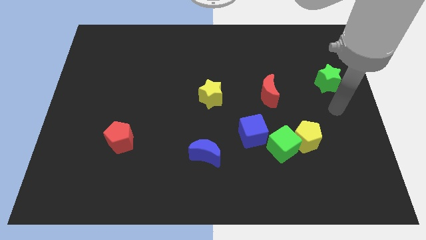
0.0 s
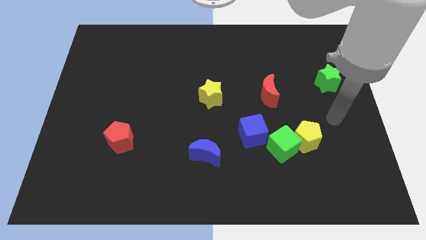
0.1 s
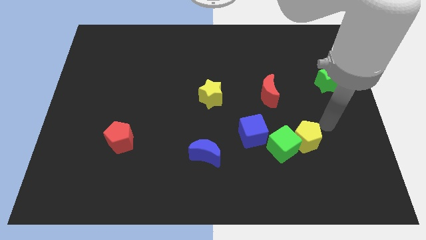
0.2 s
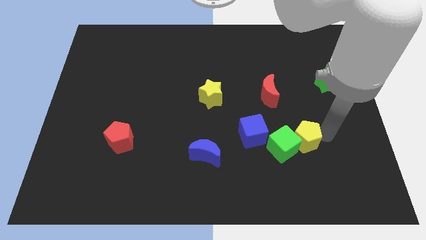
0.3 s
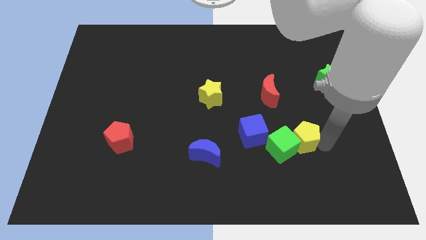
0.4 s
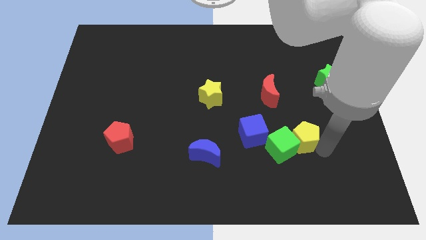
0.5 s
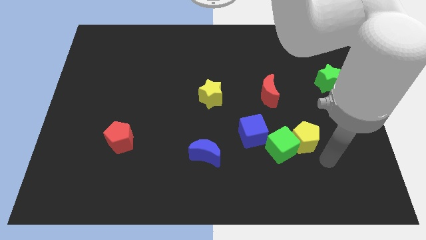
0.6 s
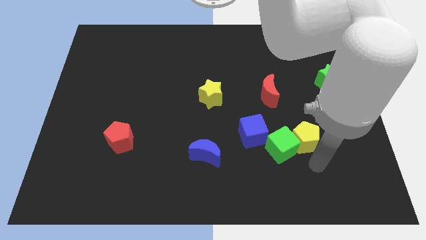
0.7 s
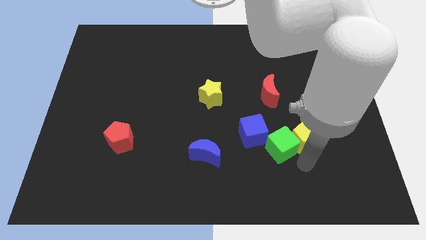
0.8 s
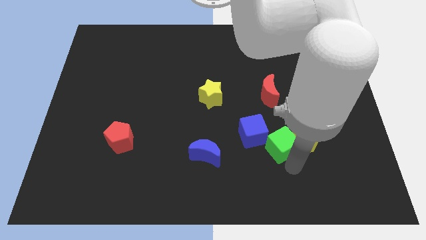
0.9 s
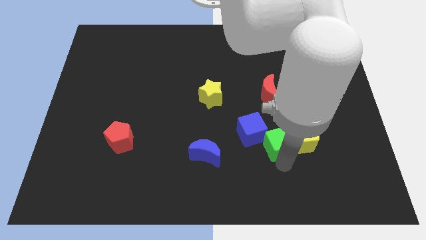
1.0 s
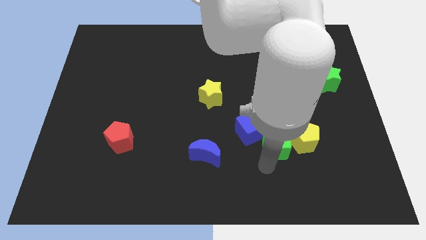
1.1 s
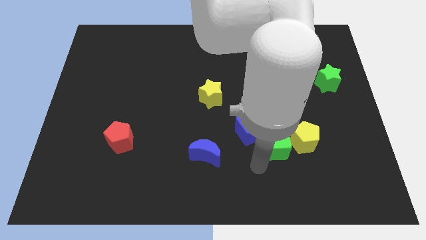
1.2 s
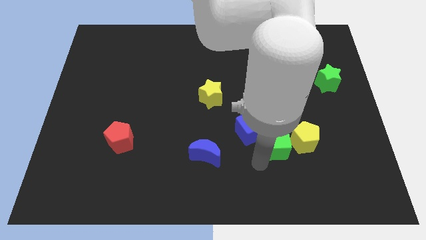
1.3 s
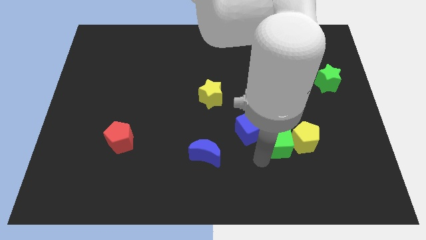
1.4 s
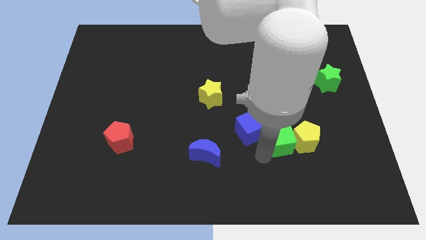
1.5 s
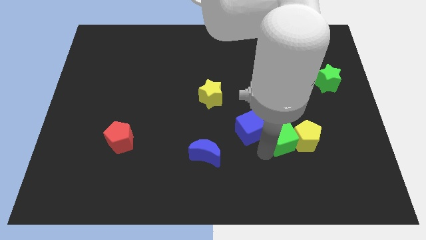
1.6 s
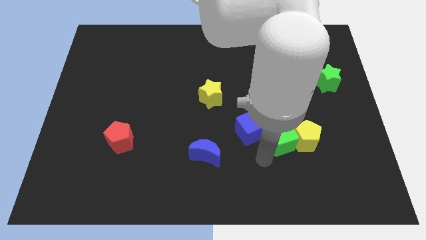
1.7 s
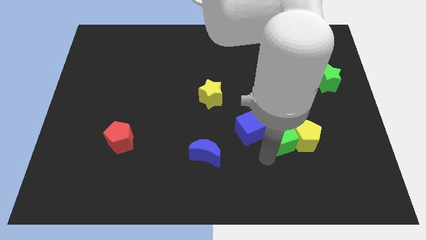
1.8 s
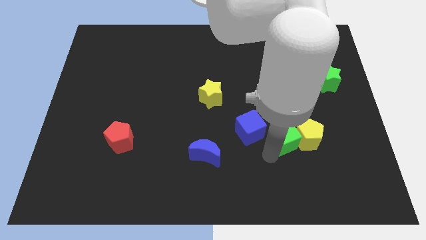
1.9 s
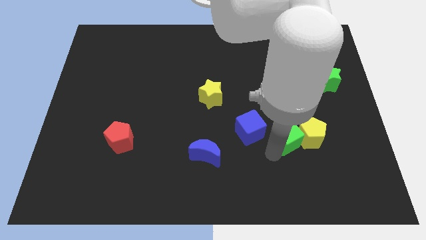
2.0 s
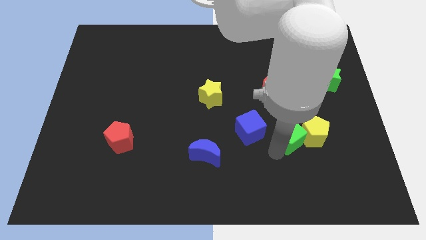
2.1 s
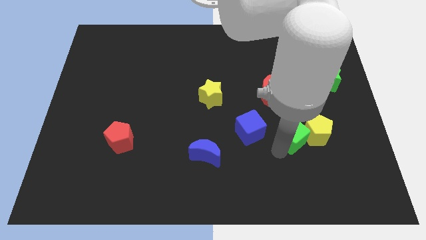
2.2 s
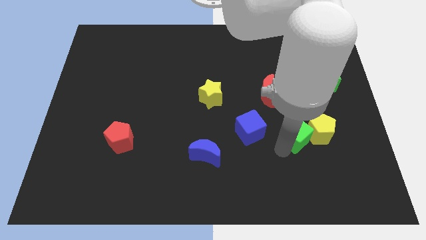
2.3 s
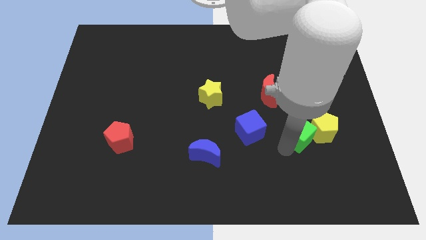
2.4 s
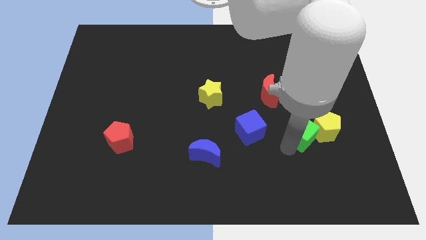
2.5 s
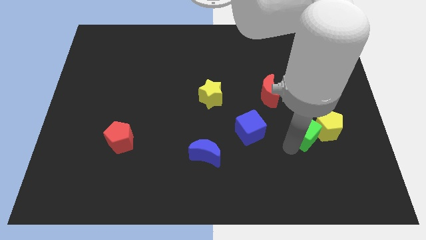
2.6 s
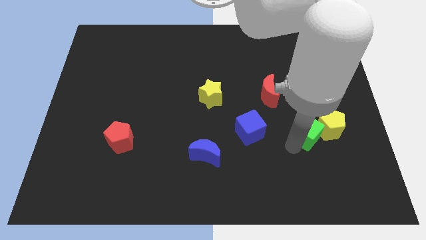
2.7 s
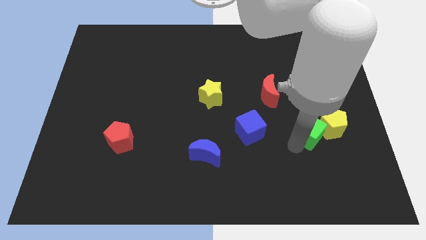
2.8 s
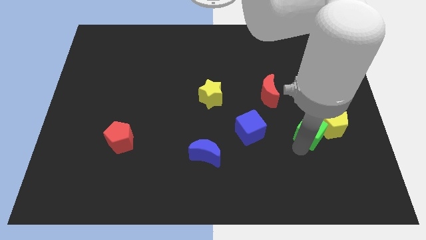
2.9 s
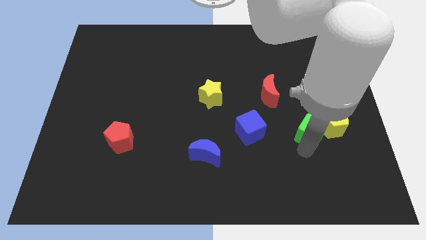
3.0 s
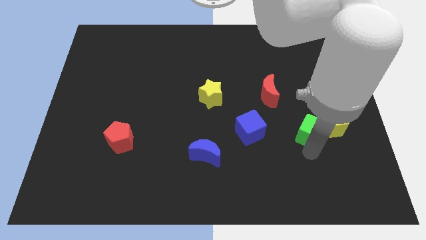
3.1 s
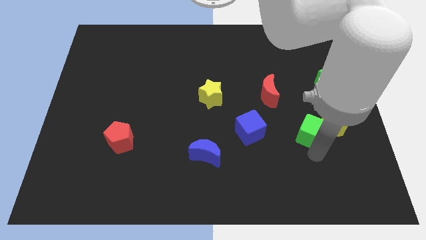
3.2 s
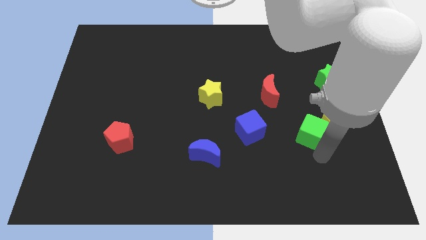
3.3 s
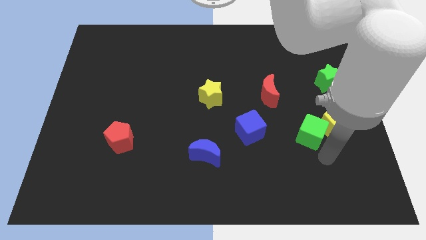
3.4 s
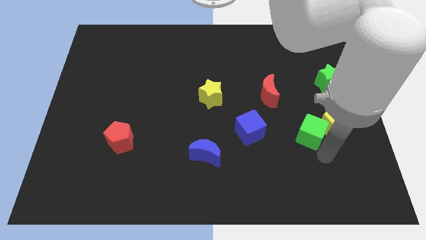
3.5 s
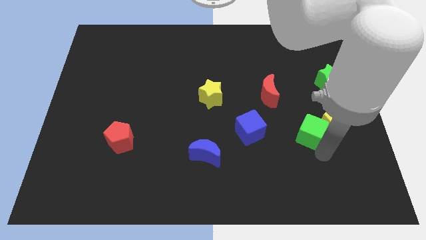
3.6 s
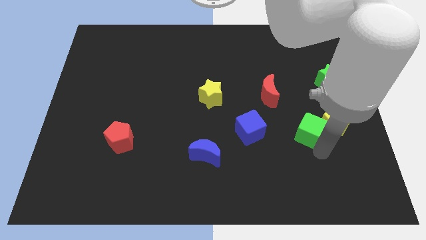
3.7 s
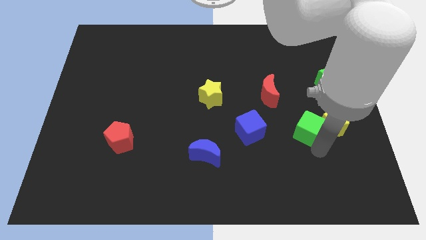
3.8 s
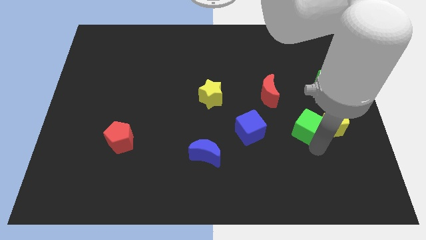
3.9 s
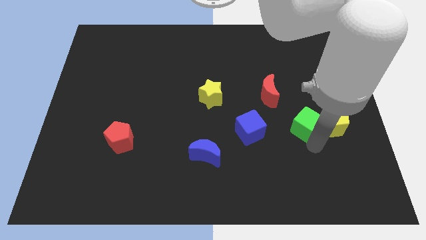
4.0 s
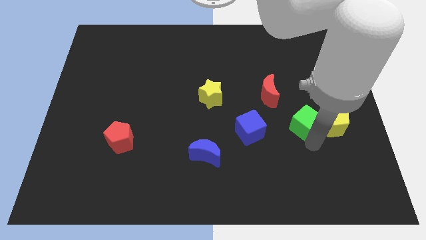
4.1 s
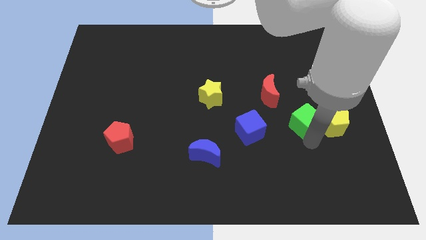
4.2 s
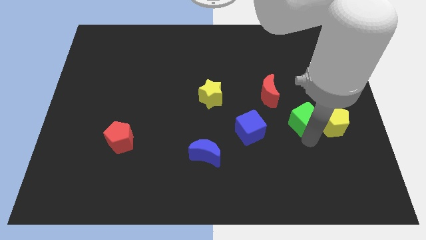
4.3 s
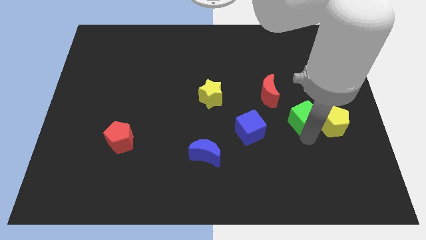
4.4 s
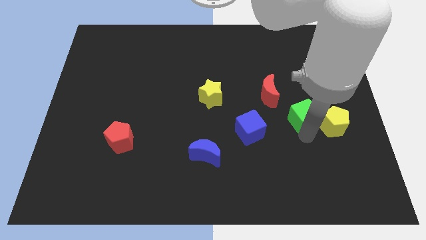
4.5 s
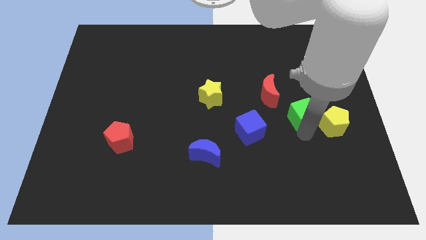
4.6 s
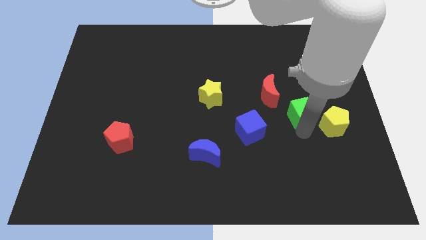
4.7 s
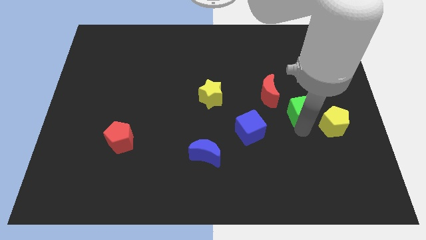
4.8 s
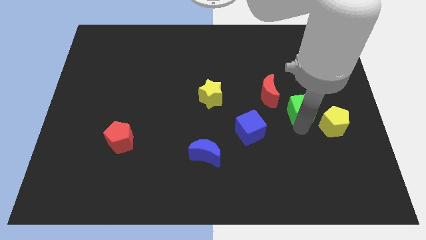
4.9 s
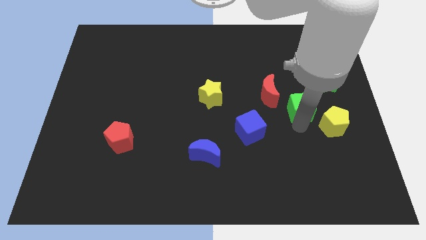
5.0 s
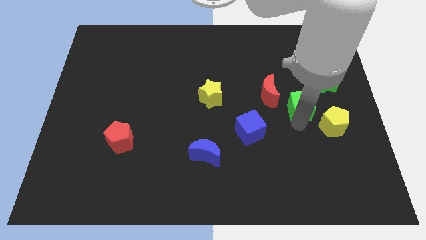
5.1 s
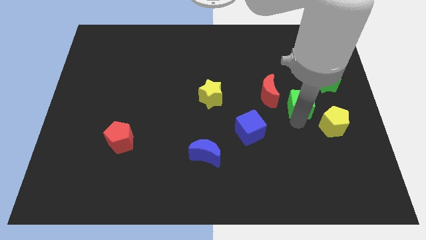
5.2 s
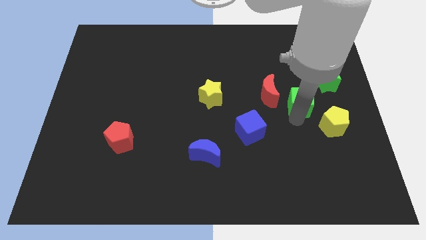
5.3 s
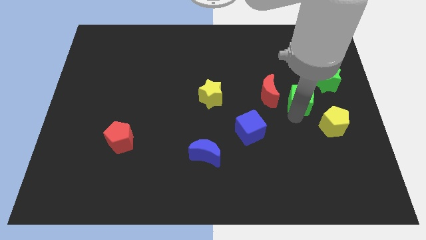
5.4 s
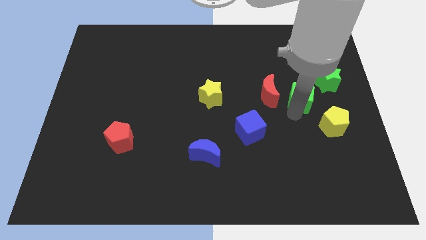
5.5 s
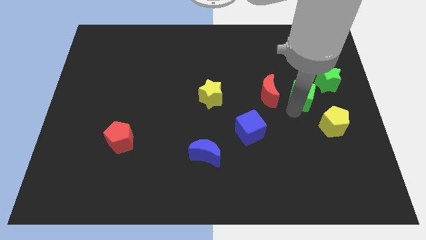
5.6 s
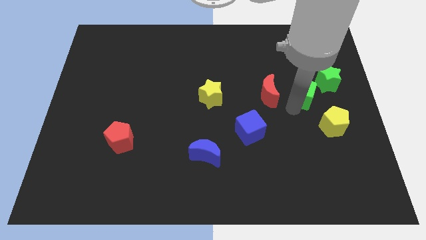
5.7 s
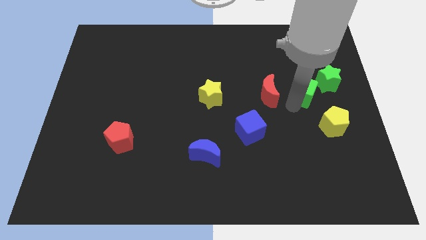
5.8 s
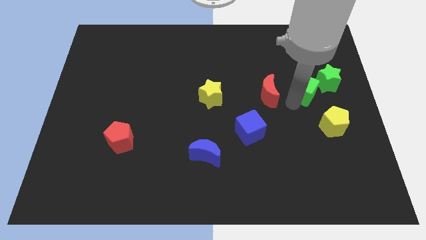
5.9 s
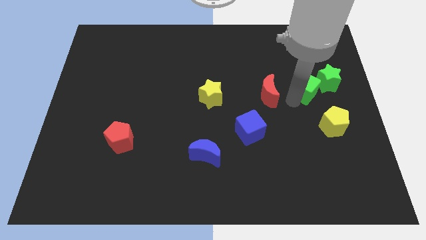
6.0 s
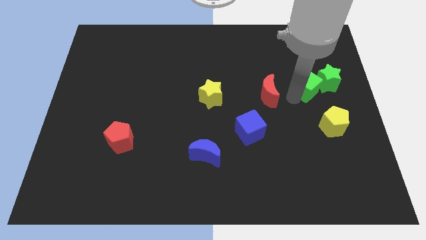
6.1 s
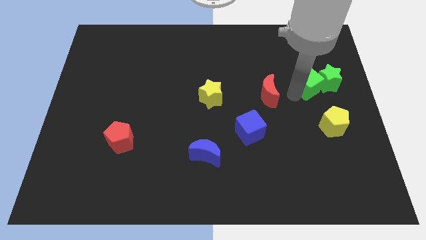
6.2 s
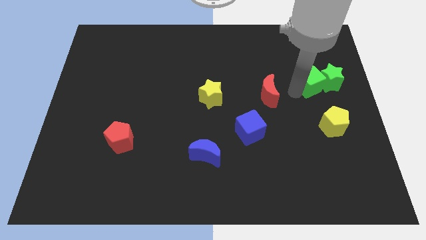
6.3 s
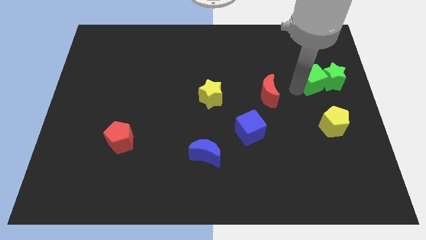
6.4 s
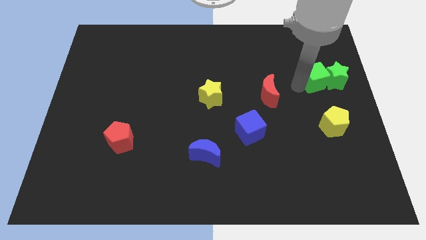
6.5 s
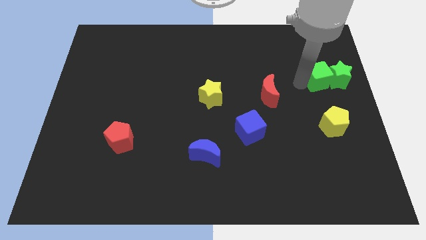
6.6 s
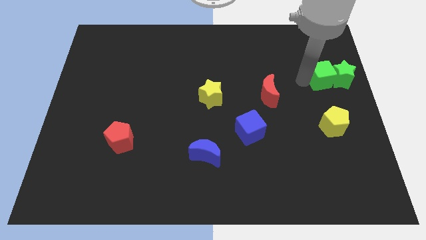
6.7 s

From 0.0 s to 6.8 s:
slide the green cube to the center right
